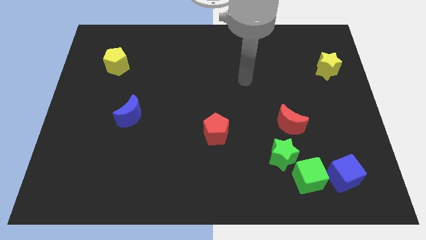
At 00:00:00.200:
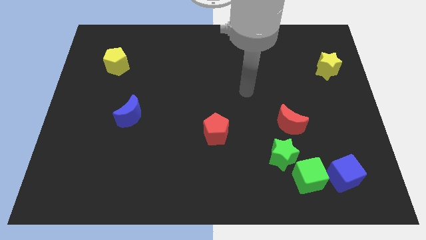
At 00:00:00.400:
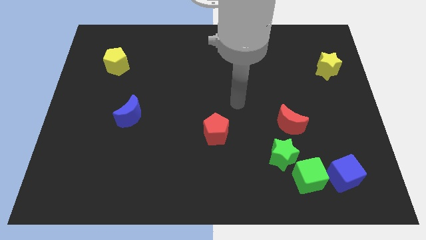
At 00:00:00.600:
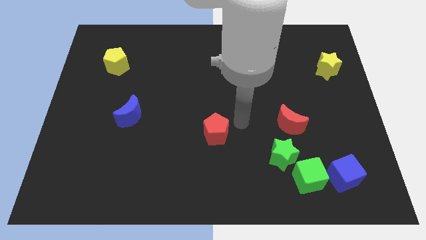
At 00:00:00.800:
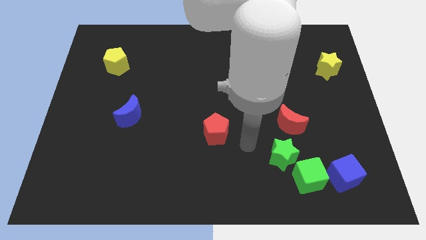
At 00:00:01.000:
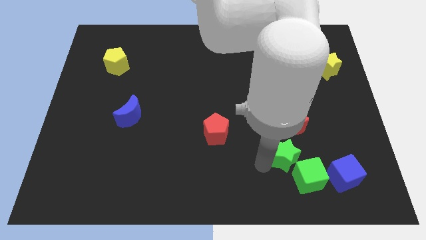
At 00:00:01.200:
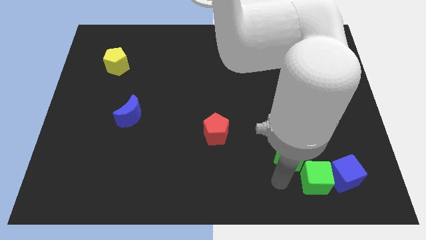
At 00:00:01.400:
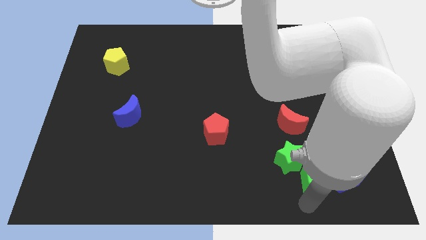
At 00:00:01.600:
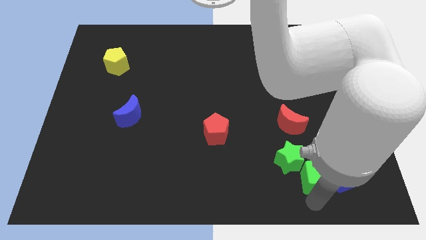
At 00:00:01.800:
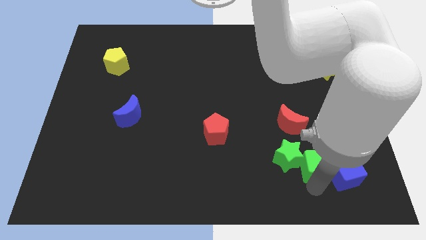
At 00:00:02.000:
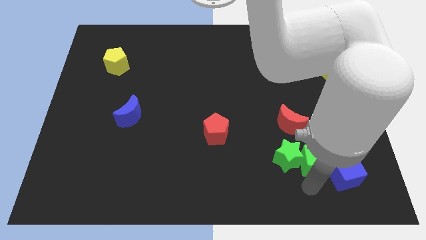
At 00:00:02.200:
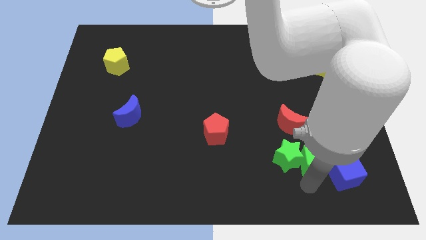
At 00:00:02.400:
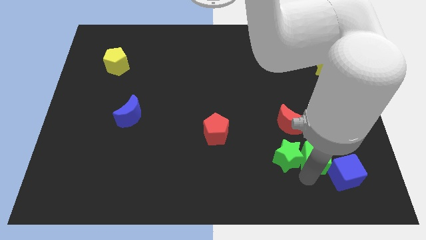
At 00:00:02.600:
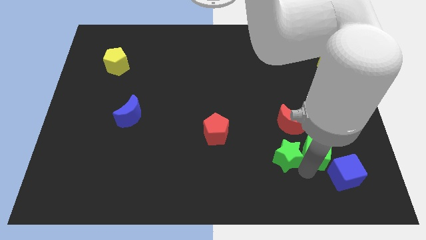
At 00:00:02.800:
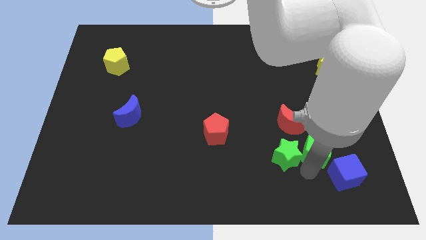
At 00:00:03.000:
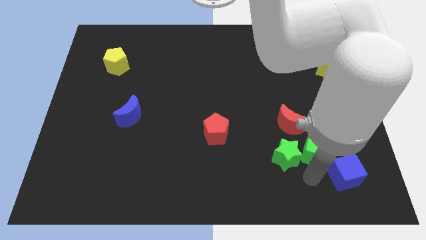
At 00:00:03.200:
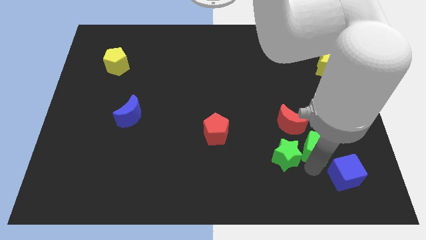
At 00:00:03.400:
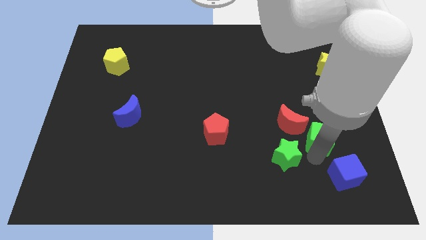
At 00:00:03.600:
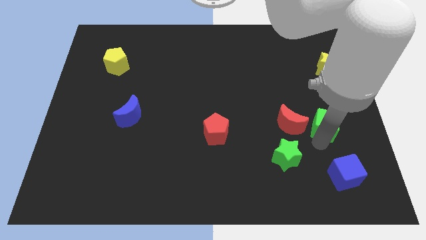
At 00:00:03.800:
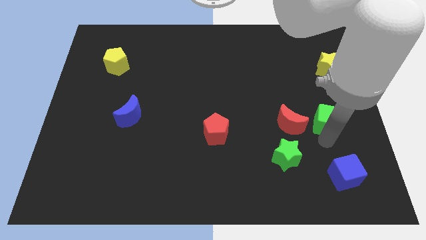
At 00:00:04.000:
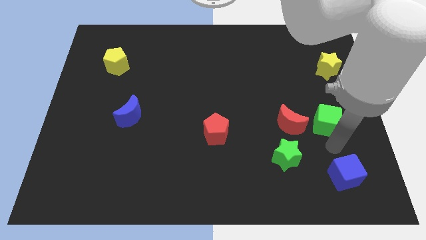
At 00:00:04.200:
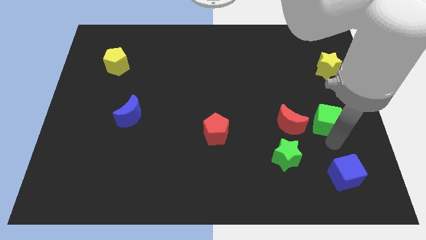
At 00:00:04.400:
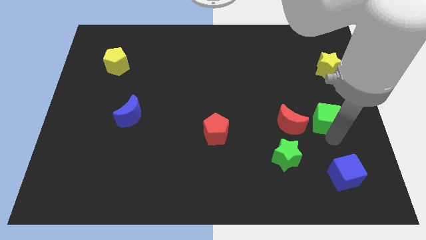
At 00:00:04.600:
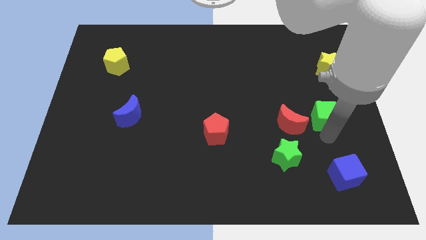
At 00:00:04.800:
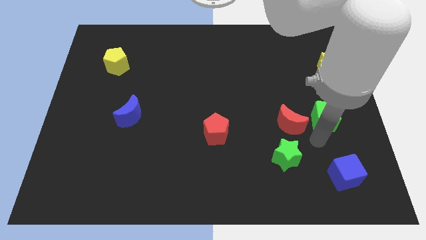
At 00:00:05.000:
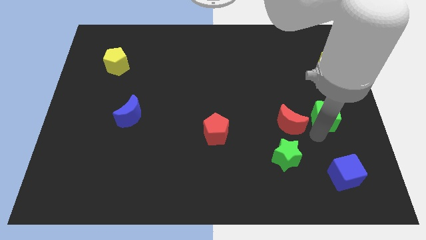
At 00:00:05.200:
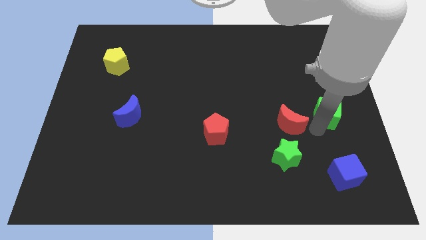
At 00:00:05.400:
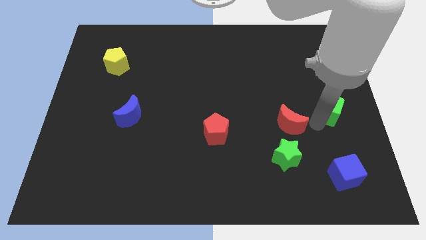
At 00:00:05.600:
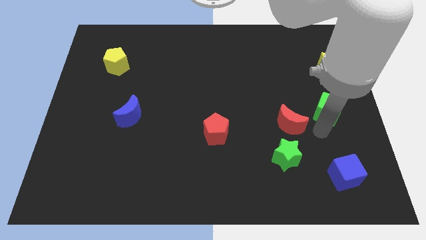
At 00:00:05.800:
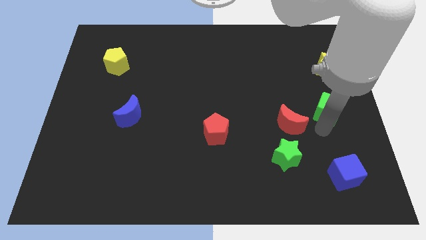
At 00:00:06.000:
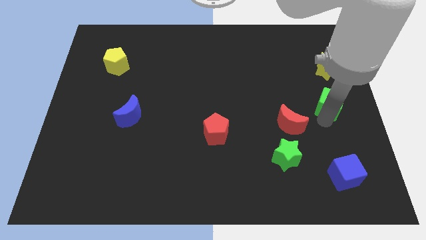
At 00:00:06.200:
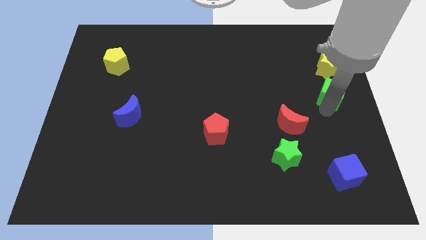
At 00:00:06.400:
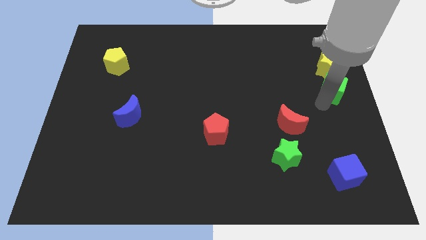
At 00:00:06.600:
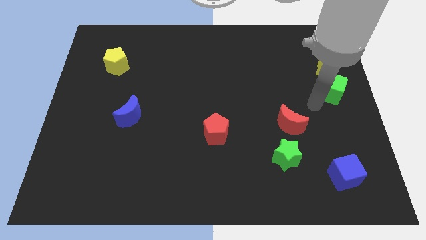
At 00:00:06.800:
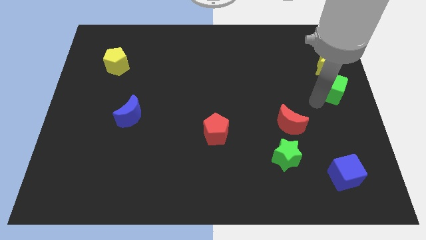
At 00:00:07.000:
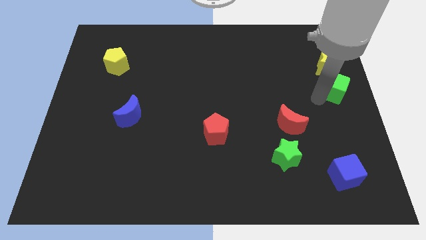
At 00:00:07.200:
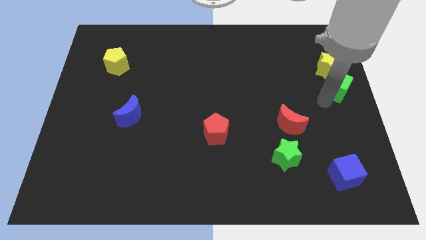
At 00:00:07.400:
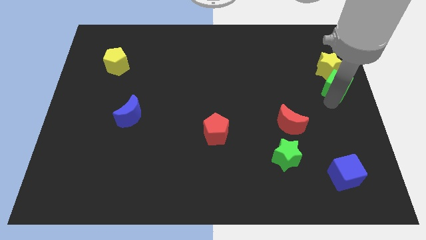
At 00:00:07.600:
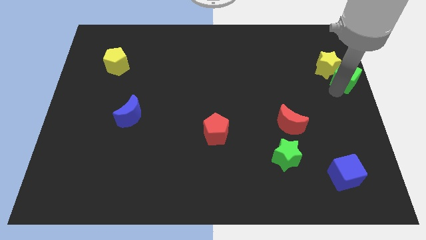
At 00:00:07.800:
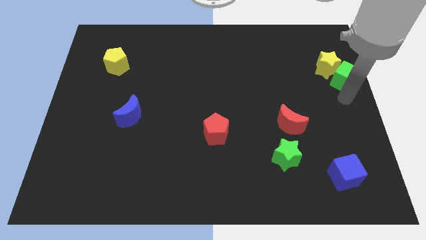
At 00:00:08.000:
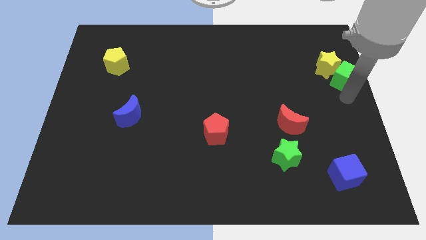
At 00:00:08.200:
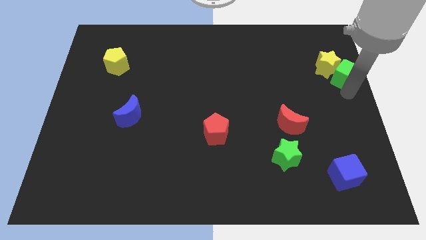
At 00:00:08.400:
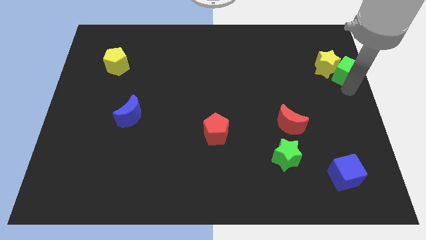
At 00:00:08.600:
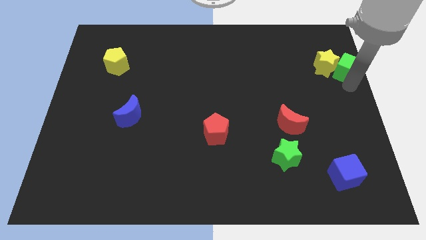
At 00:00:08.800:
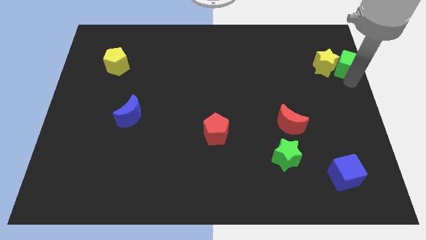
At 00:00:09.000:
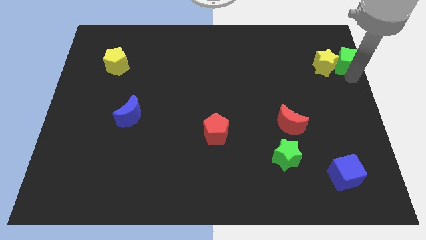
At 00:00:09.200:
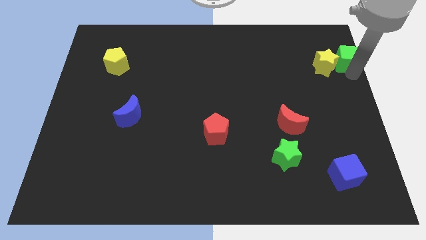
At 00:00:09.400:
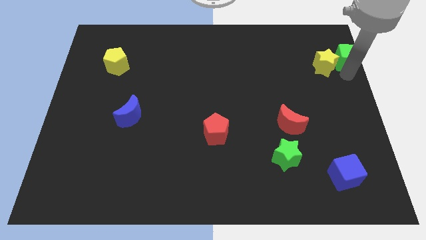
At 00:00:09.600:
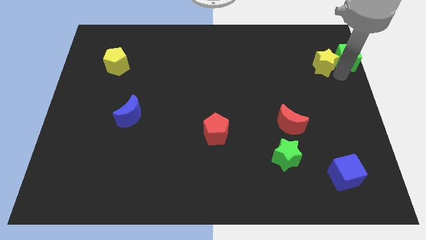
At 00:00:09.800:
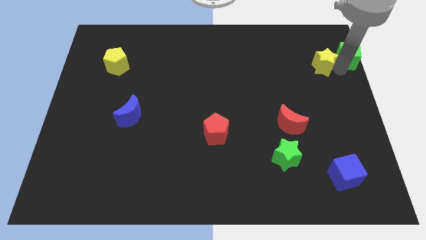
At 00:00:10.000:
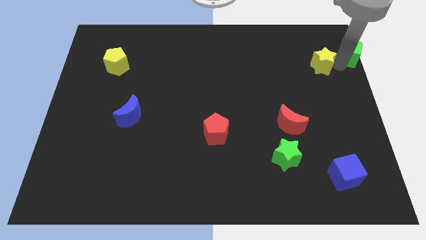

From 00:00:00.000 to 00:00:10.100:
slide the green cube to the top right of the board
